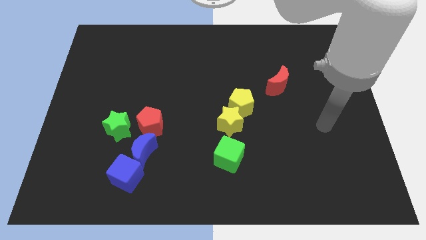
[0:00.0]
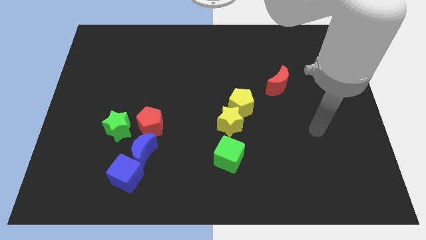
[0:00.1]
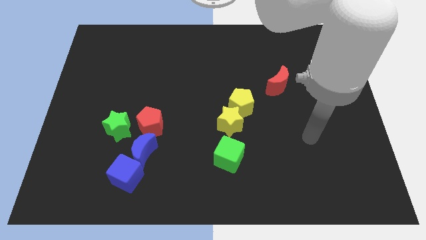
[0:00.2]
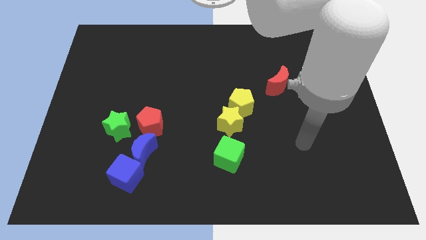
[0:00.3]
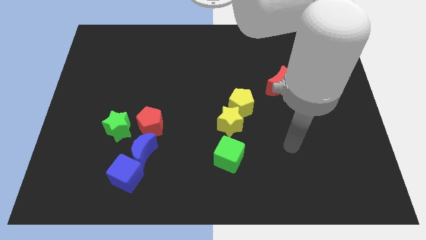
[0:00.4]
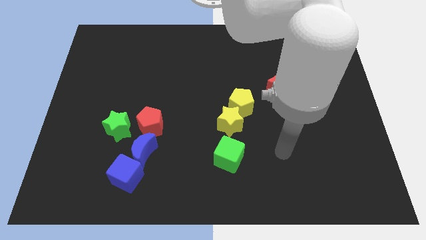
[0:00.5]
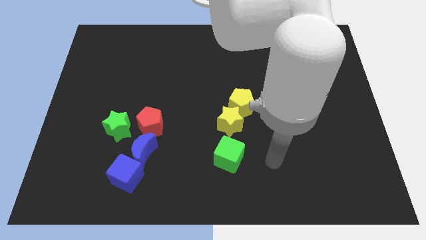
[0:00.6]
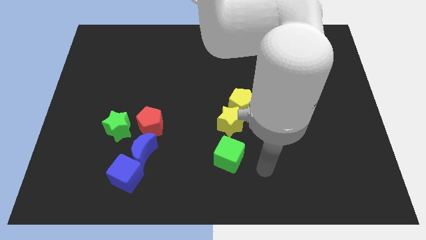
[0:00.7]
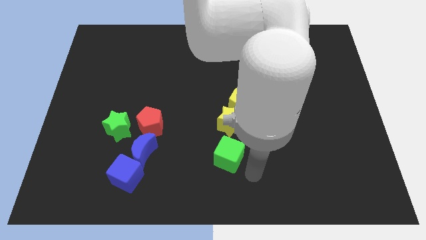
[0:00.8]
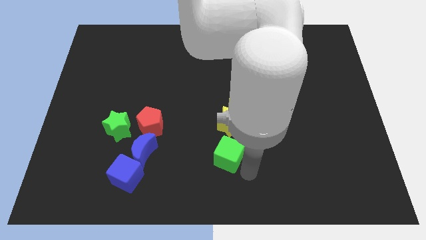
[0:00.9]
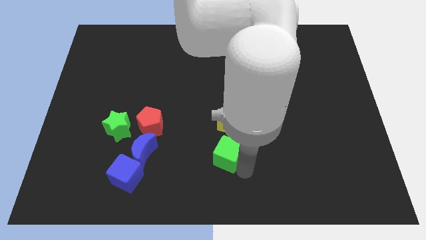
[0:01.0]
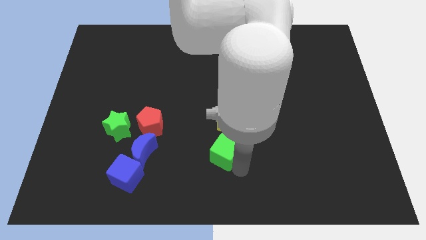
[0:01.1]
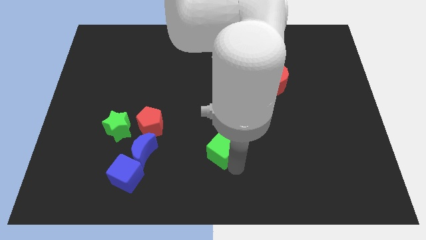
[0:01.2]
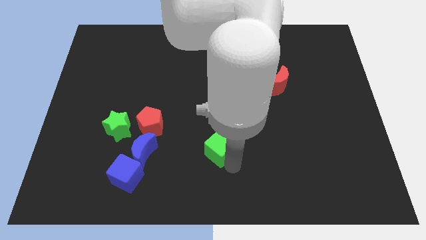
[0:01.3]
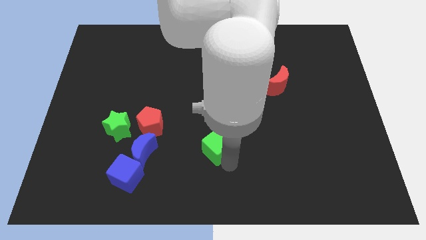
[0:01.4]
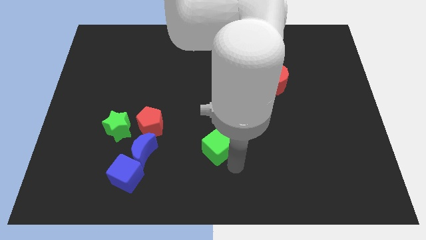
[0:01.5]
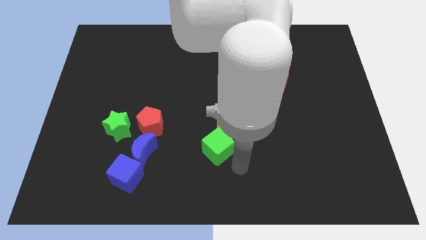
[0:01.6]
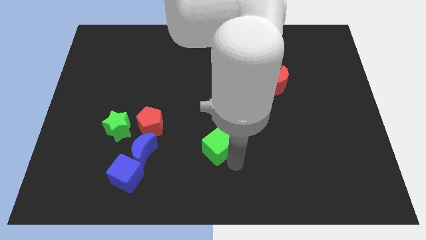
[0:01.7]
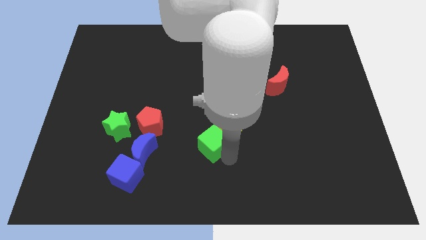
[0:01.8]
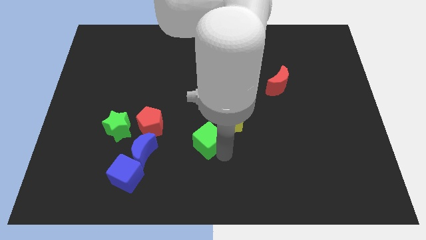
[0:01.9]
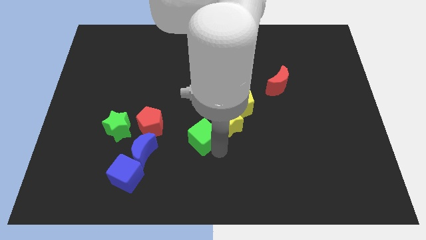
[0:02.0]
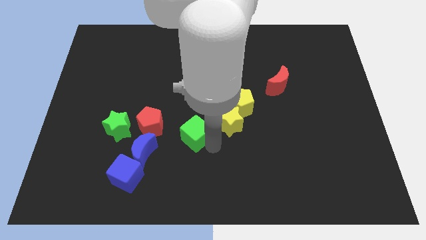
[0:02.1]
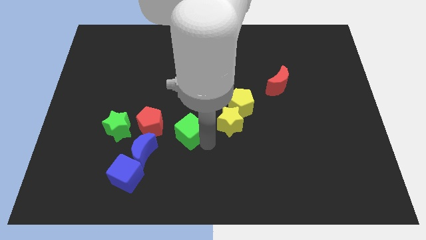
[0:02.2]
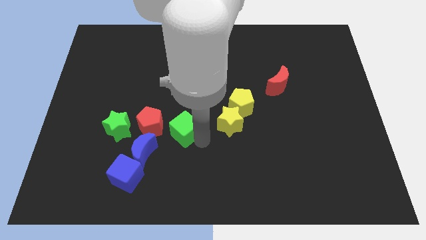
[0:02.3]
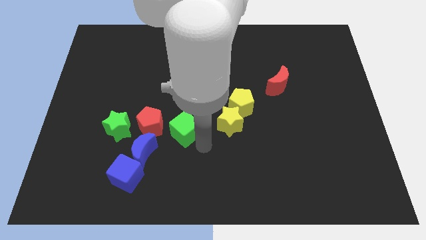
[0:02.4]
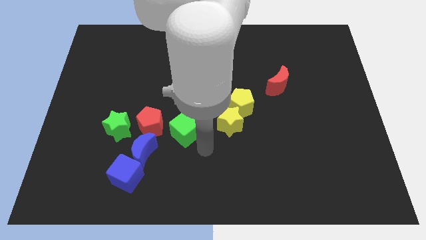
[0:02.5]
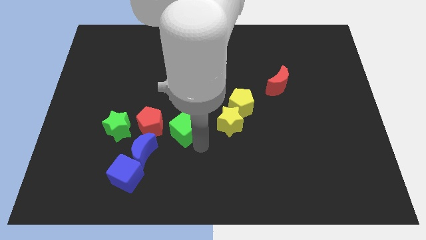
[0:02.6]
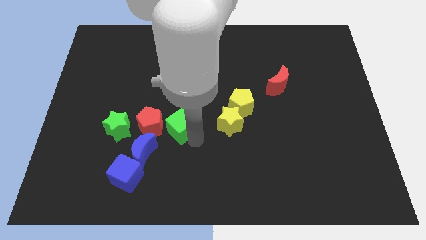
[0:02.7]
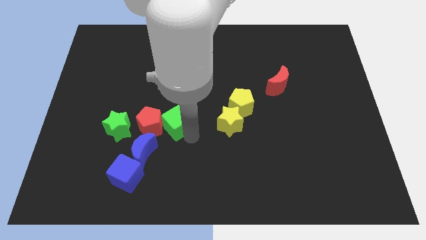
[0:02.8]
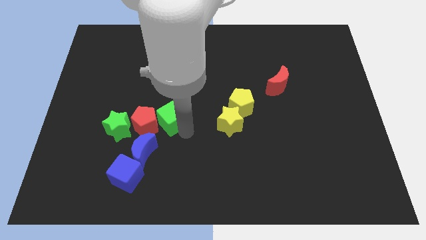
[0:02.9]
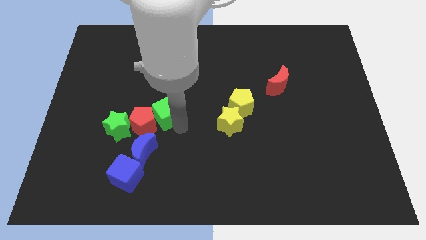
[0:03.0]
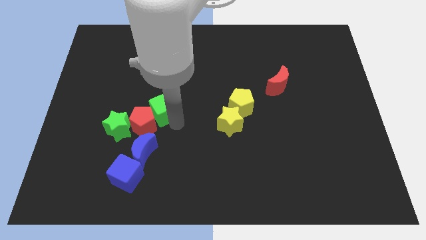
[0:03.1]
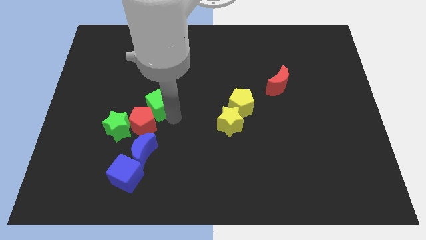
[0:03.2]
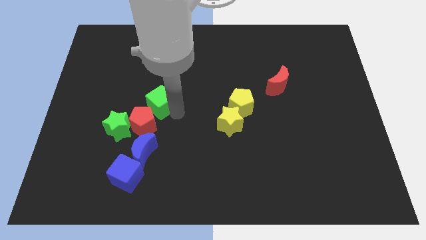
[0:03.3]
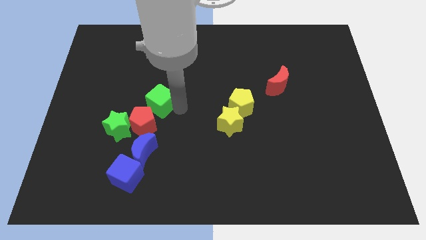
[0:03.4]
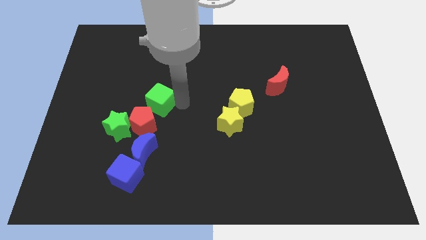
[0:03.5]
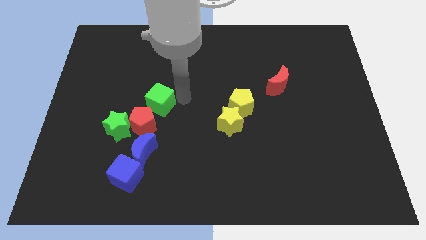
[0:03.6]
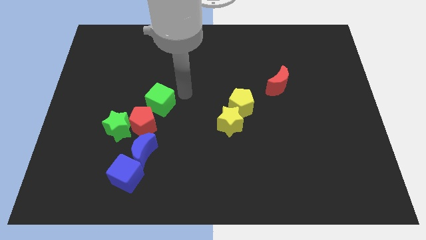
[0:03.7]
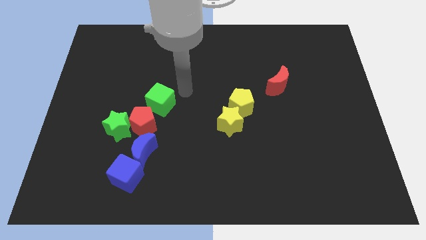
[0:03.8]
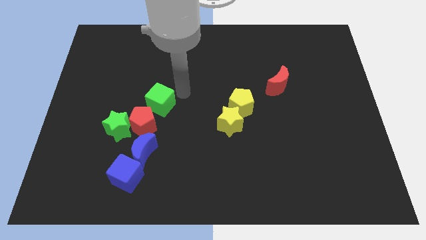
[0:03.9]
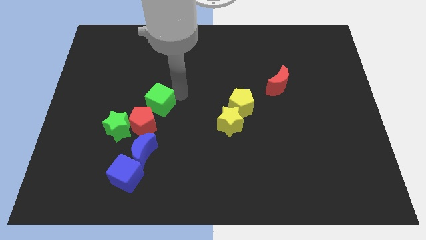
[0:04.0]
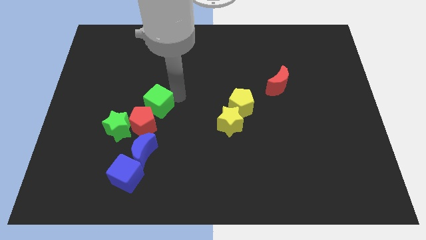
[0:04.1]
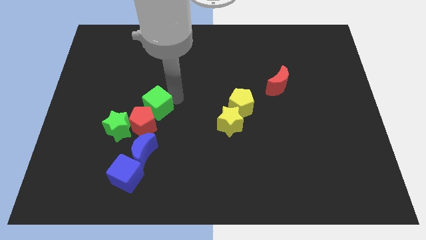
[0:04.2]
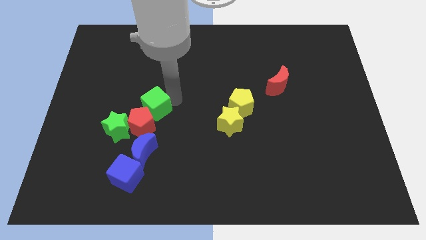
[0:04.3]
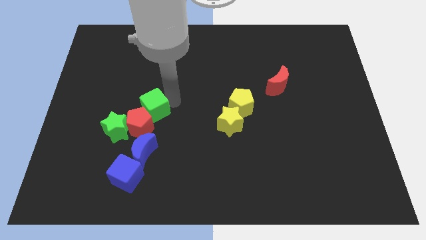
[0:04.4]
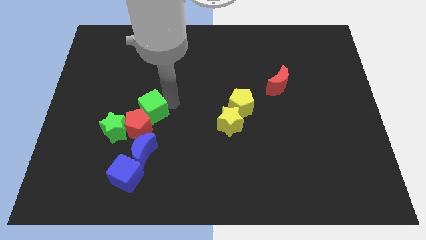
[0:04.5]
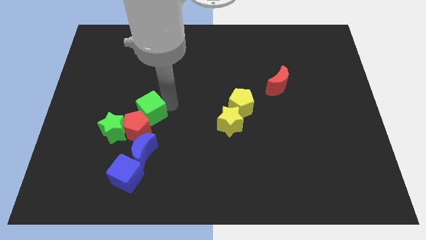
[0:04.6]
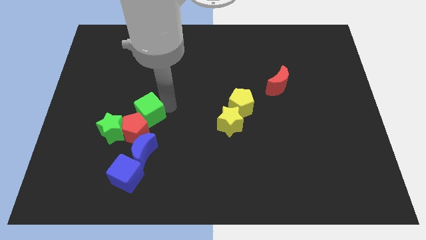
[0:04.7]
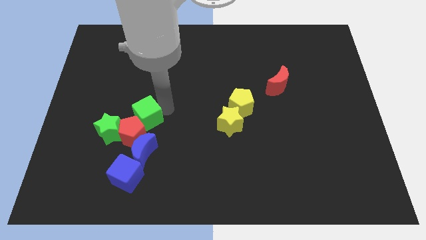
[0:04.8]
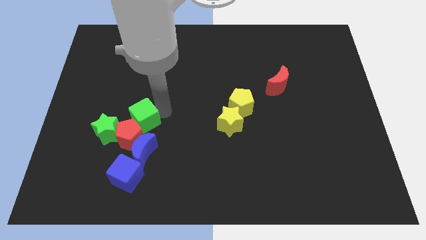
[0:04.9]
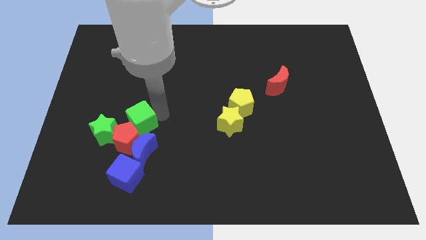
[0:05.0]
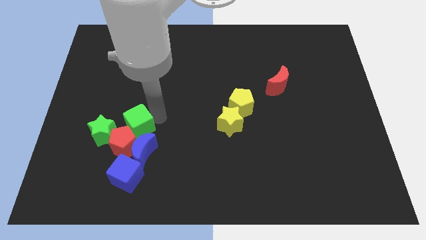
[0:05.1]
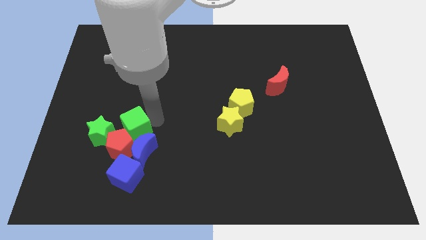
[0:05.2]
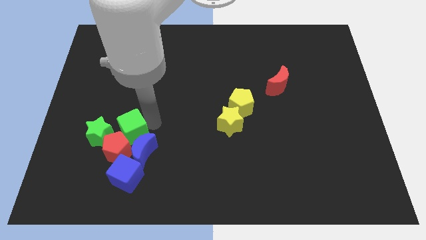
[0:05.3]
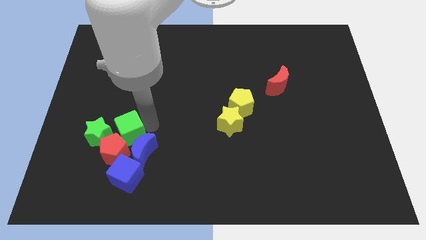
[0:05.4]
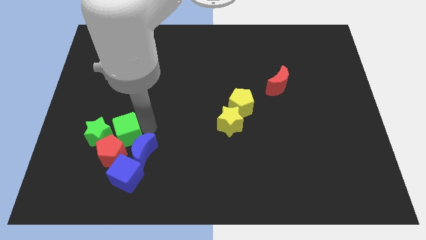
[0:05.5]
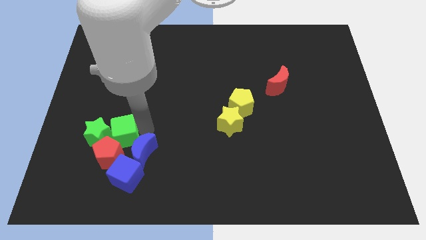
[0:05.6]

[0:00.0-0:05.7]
move the green cube towards the green star

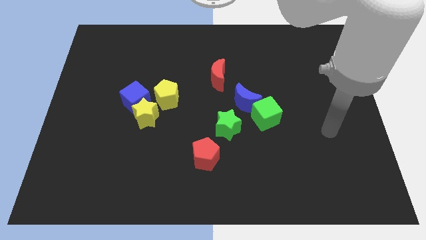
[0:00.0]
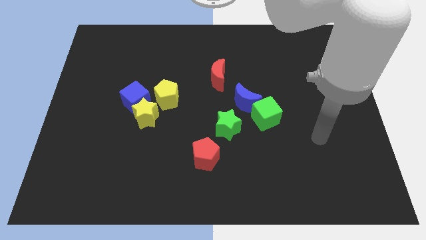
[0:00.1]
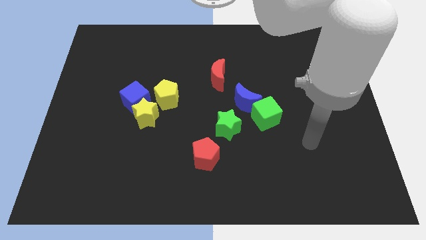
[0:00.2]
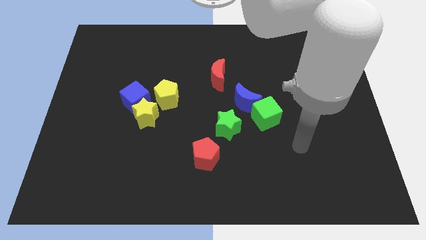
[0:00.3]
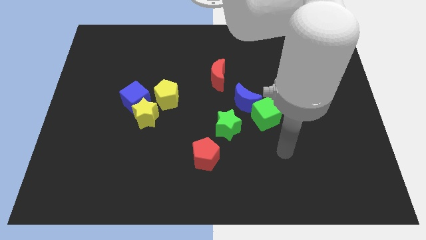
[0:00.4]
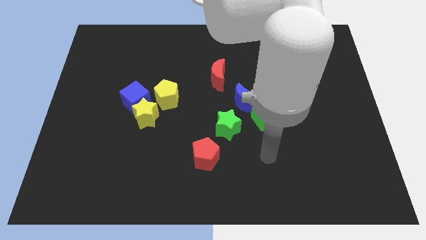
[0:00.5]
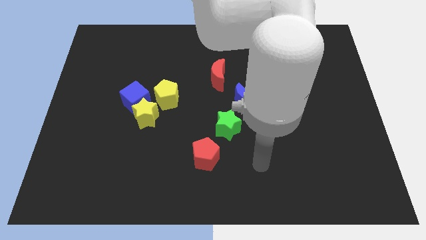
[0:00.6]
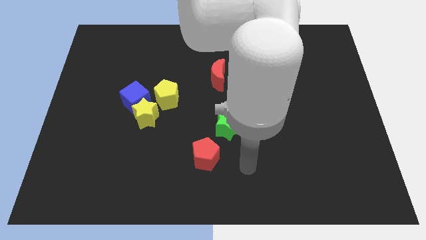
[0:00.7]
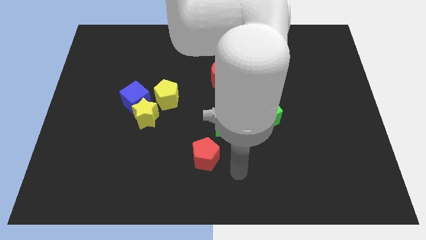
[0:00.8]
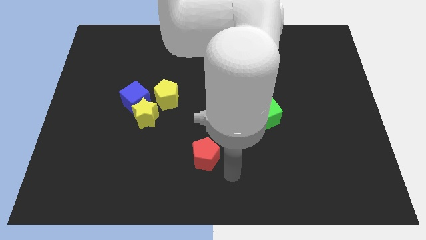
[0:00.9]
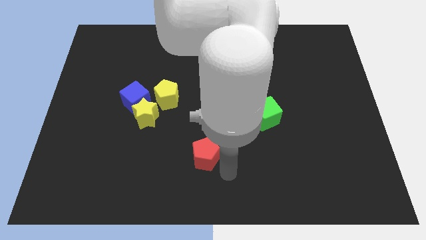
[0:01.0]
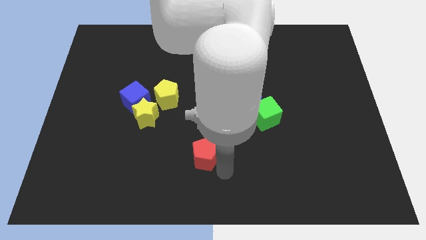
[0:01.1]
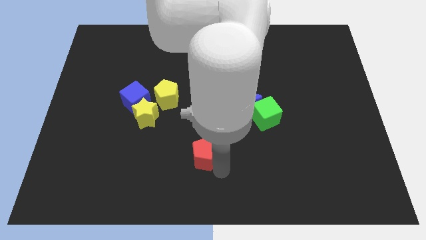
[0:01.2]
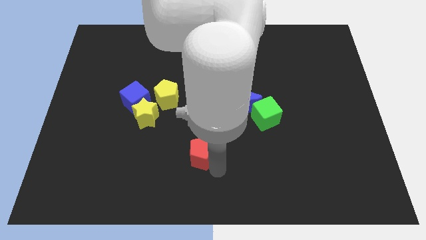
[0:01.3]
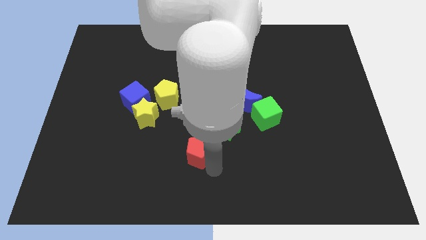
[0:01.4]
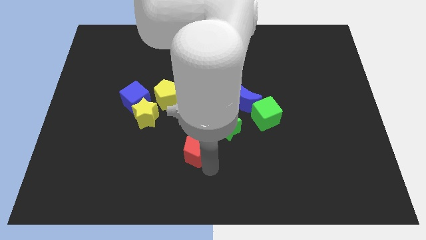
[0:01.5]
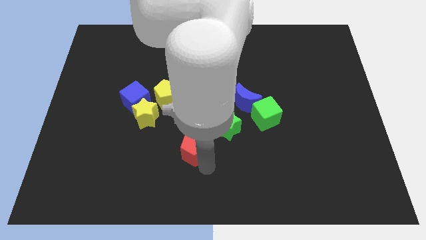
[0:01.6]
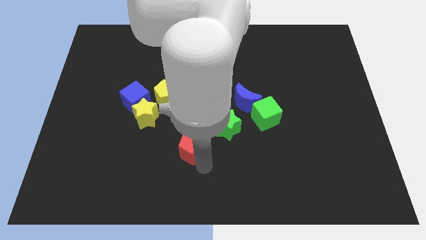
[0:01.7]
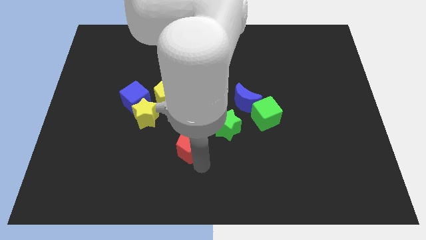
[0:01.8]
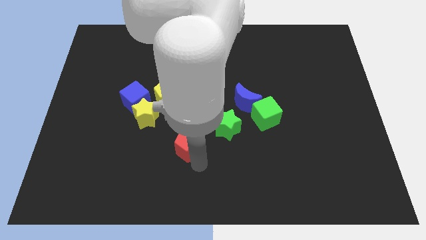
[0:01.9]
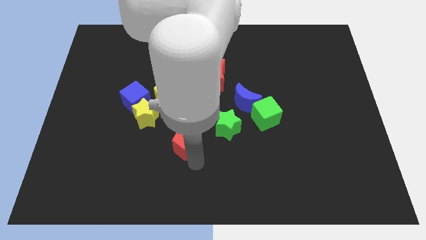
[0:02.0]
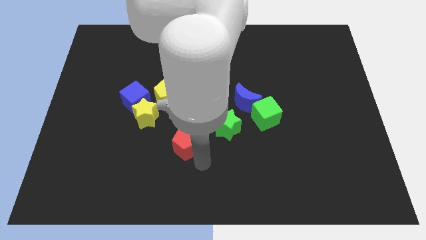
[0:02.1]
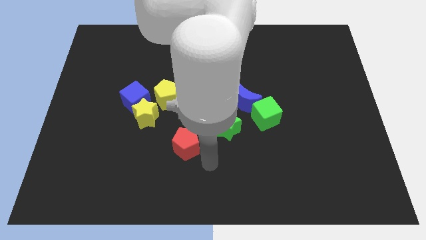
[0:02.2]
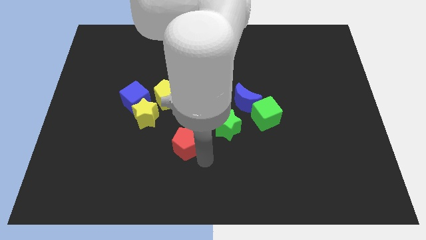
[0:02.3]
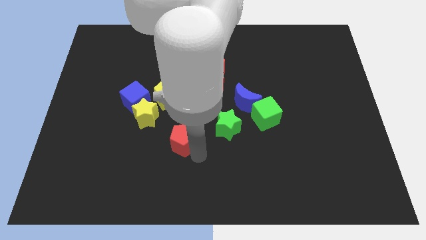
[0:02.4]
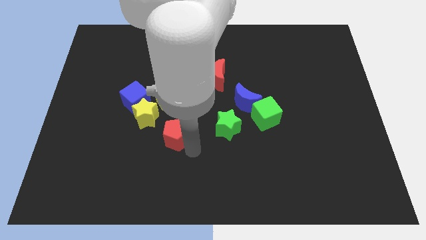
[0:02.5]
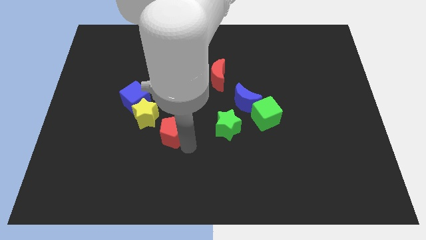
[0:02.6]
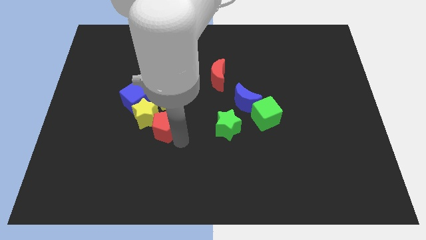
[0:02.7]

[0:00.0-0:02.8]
slide the red pentagon next to the yellow star
